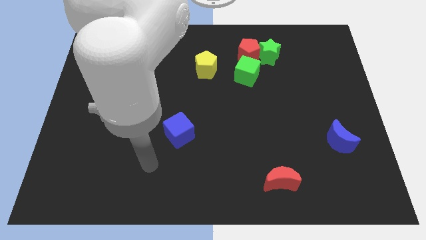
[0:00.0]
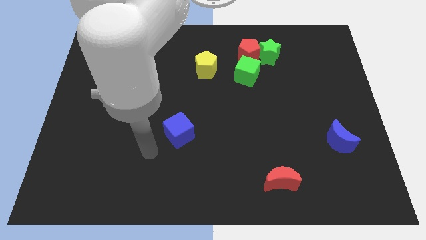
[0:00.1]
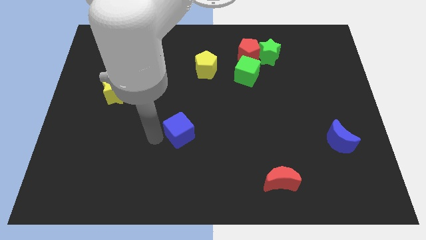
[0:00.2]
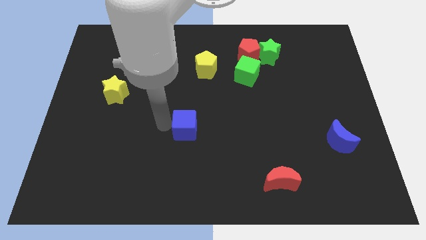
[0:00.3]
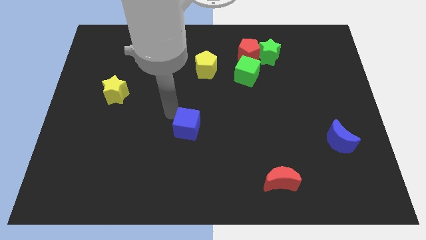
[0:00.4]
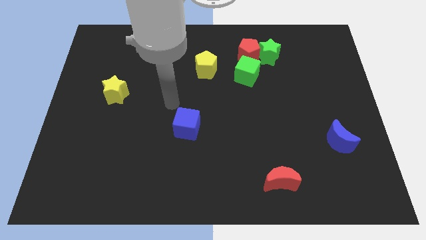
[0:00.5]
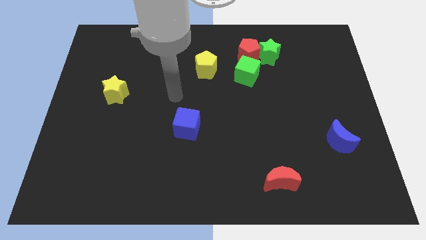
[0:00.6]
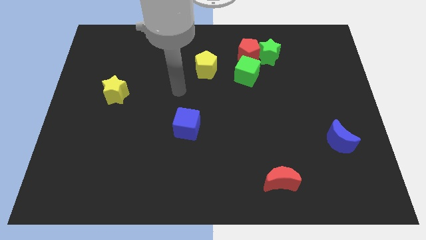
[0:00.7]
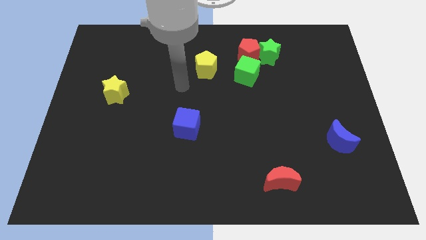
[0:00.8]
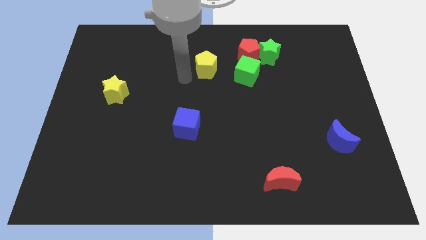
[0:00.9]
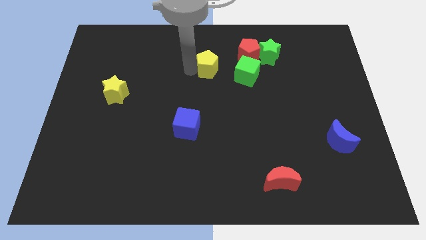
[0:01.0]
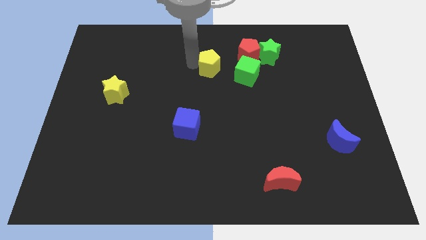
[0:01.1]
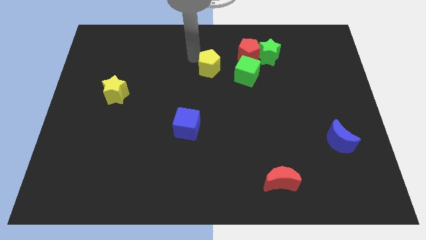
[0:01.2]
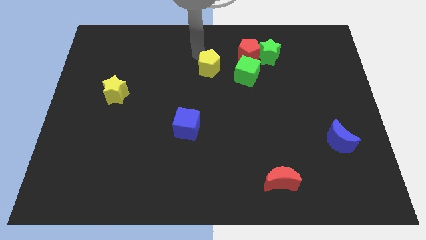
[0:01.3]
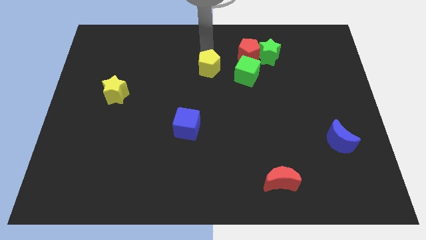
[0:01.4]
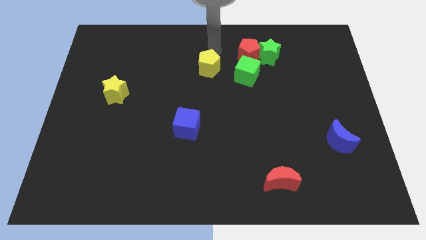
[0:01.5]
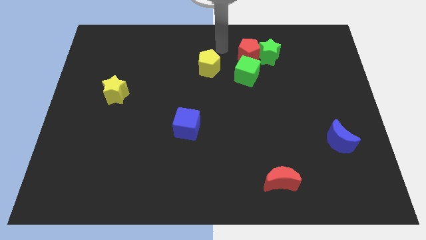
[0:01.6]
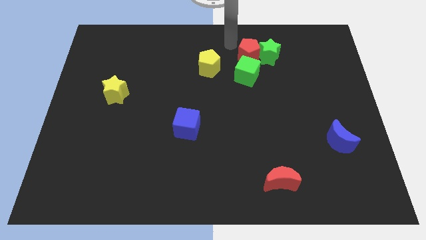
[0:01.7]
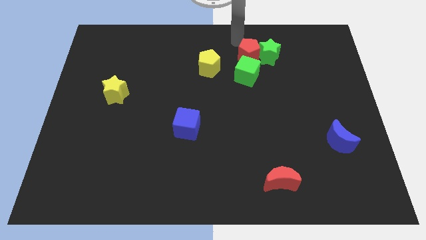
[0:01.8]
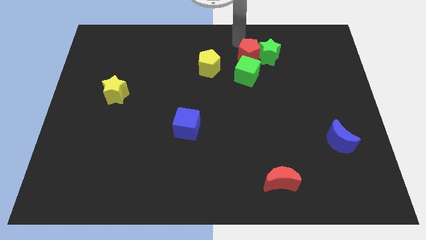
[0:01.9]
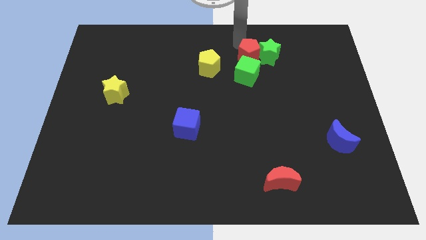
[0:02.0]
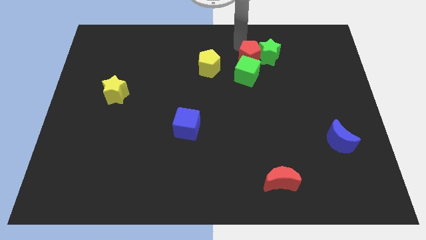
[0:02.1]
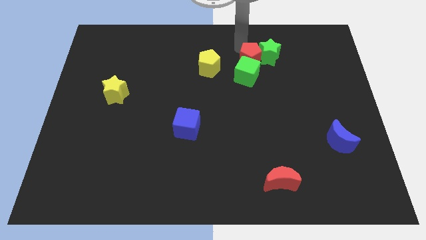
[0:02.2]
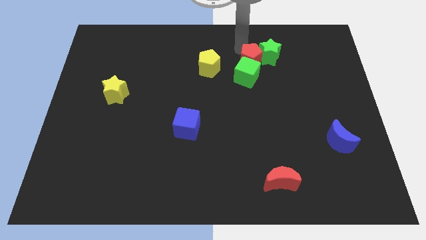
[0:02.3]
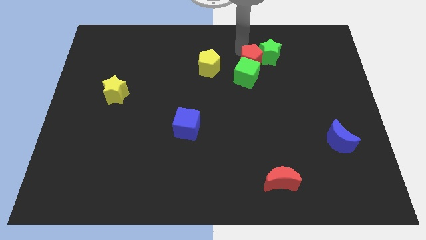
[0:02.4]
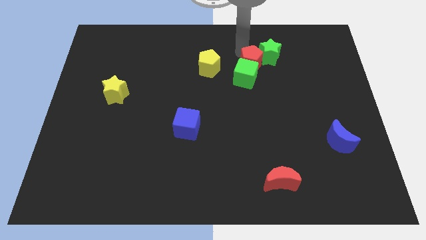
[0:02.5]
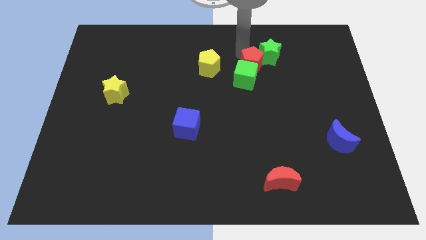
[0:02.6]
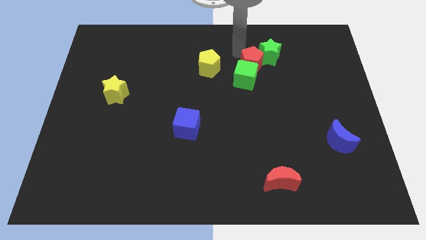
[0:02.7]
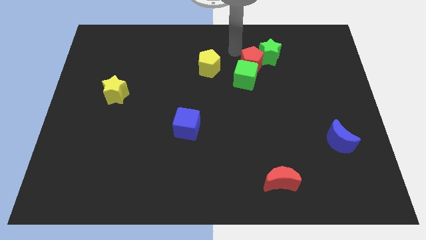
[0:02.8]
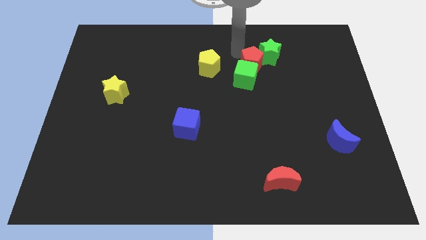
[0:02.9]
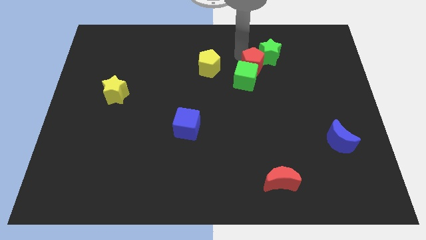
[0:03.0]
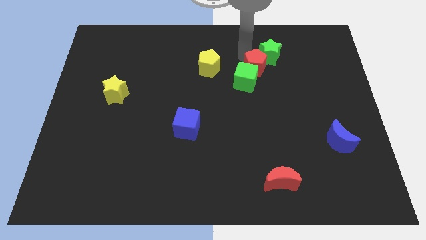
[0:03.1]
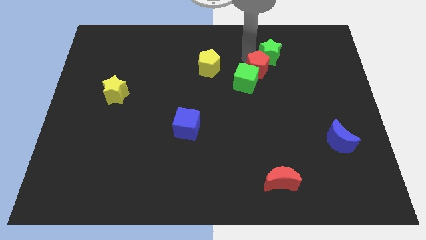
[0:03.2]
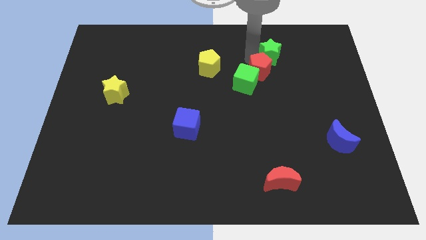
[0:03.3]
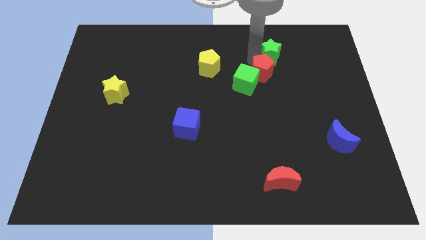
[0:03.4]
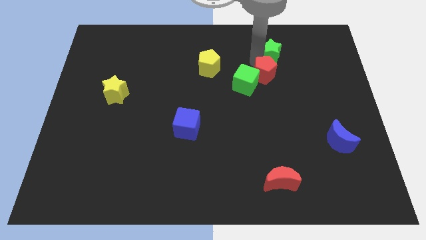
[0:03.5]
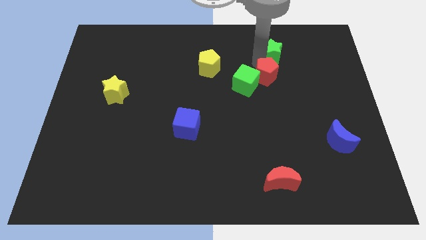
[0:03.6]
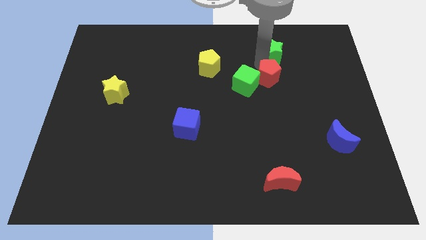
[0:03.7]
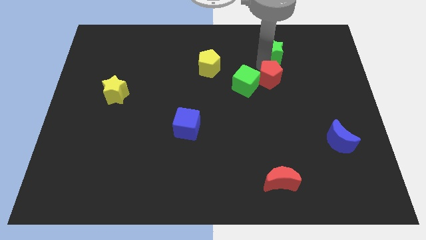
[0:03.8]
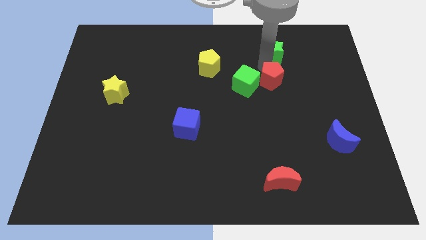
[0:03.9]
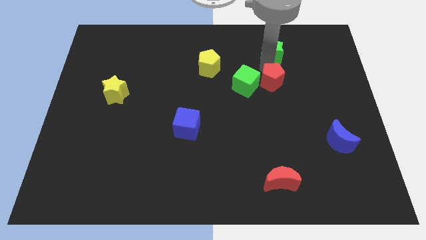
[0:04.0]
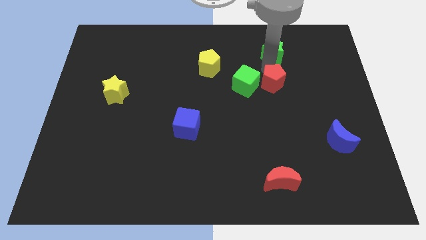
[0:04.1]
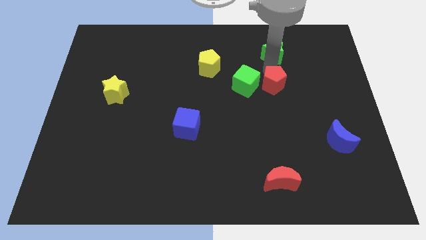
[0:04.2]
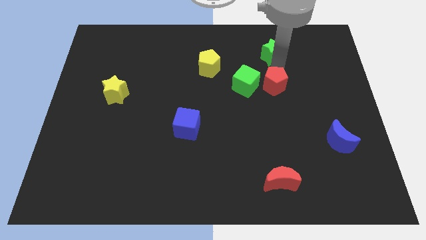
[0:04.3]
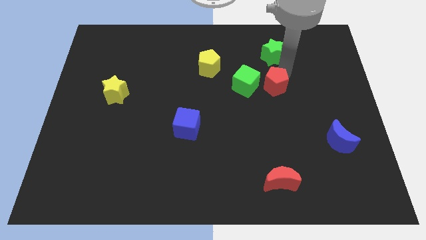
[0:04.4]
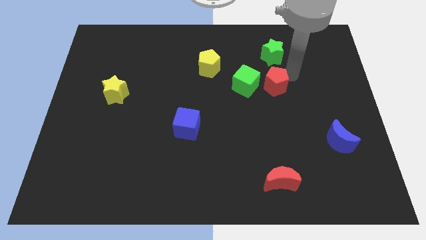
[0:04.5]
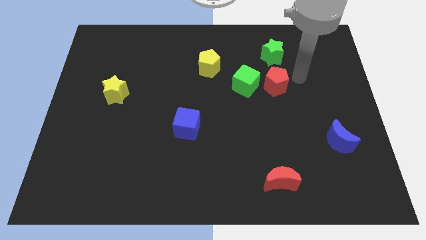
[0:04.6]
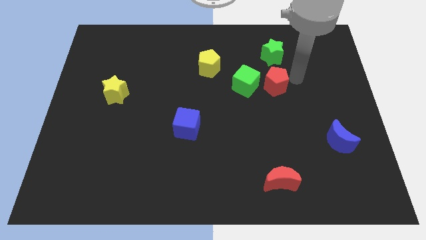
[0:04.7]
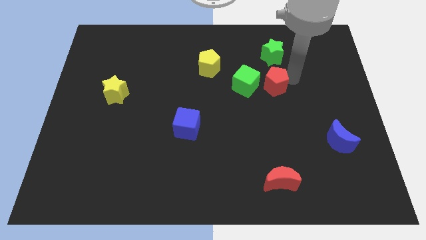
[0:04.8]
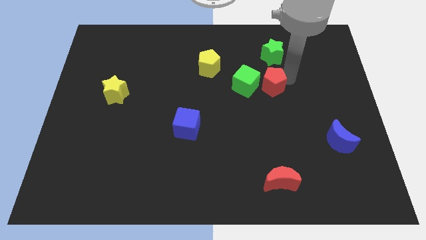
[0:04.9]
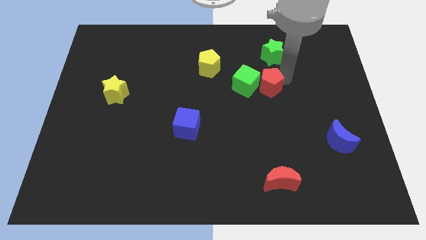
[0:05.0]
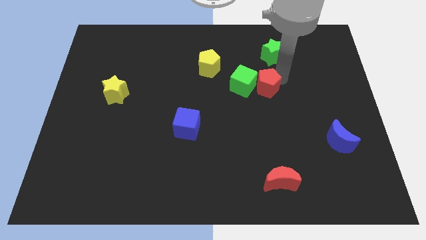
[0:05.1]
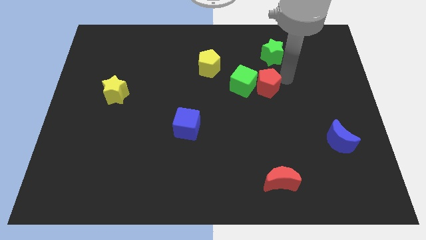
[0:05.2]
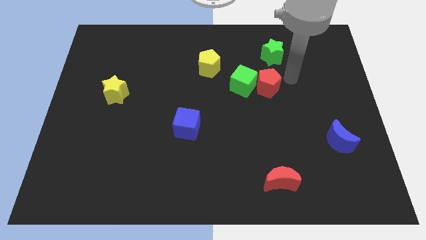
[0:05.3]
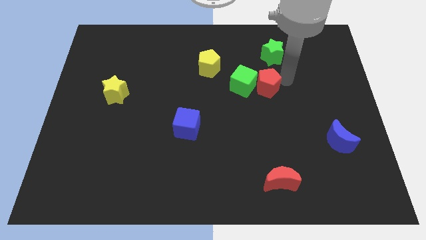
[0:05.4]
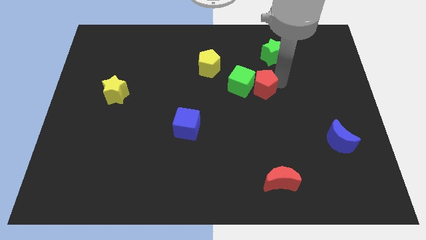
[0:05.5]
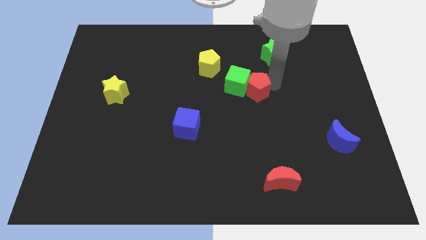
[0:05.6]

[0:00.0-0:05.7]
slide the red pentagon to the center of the board
